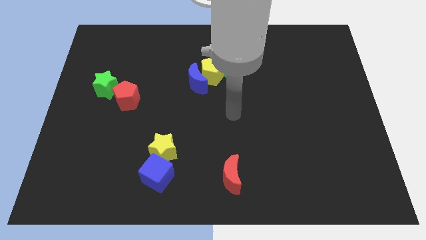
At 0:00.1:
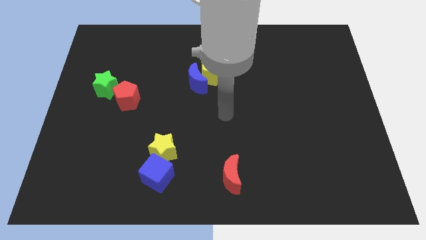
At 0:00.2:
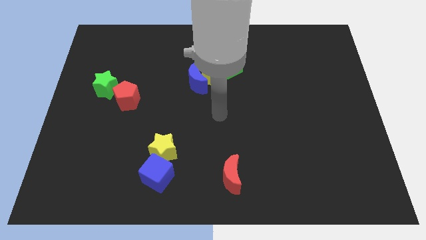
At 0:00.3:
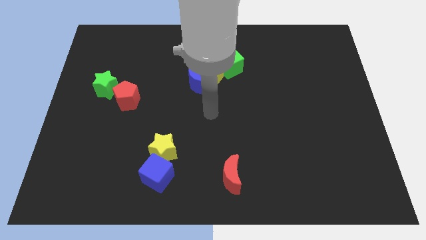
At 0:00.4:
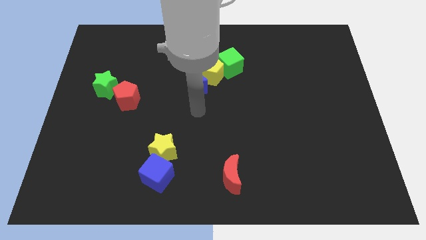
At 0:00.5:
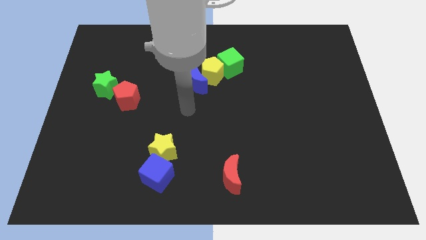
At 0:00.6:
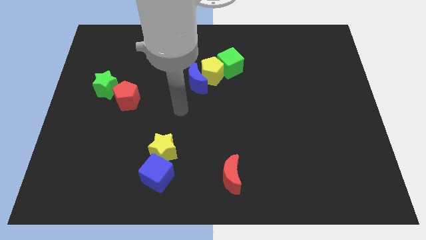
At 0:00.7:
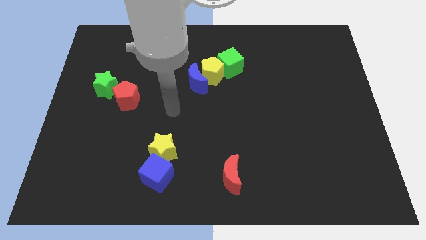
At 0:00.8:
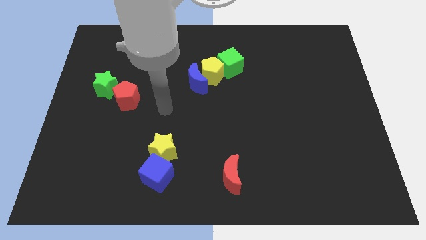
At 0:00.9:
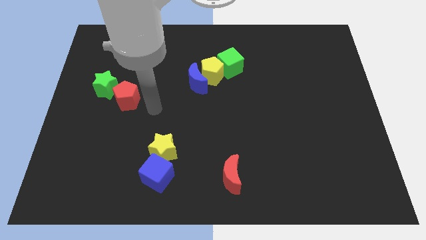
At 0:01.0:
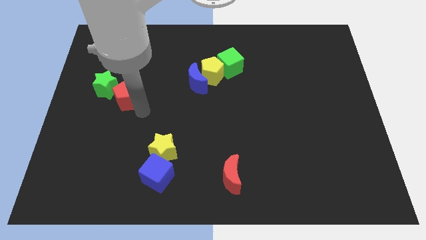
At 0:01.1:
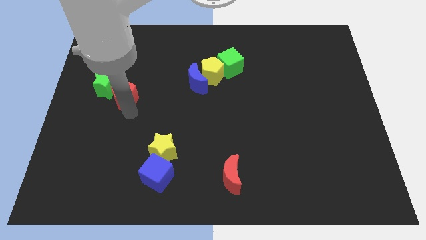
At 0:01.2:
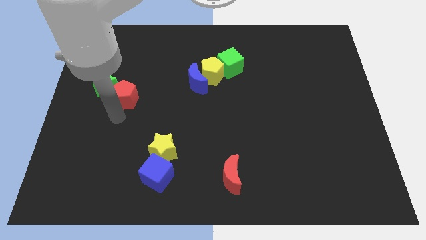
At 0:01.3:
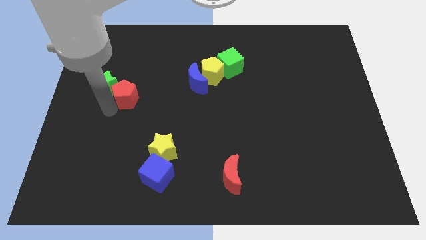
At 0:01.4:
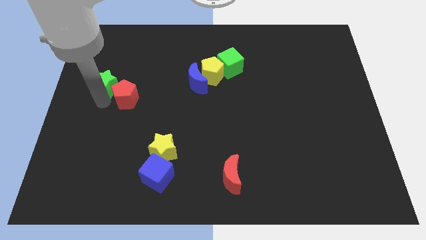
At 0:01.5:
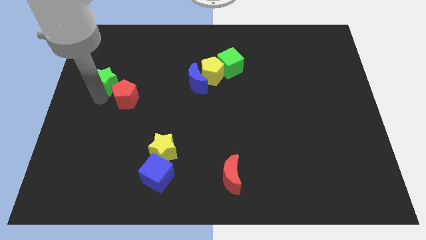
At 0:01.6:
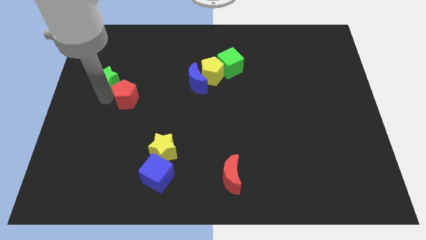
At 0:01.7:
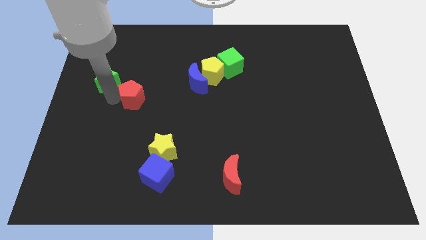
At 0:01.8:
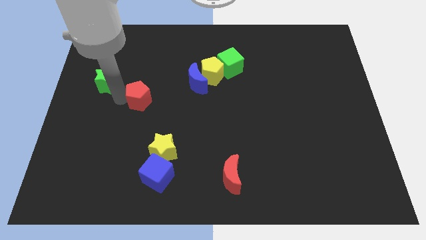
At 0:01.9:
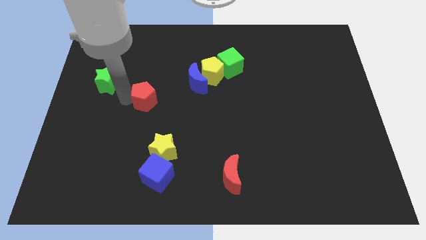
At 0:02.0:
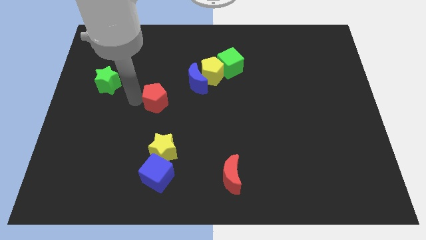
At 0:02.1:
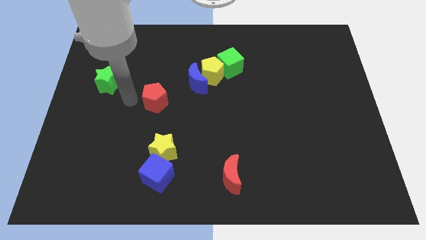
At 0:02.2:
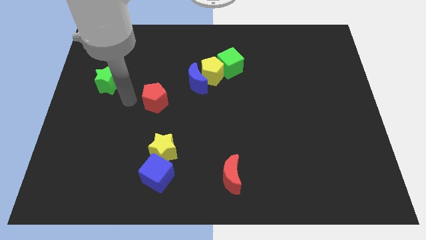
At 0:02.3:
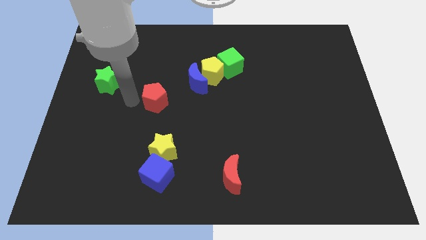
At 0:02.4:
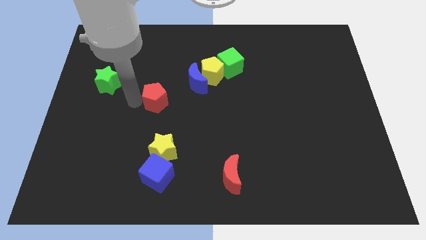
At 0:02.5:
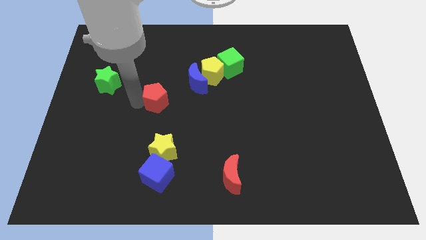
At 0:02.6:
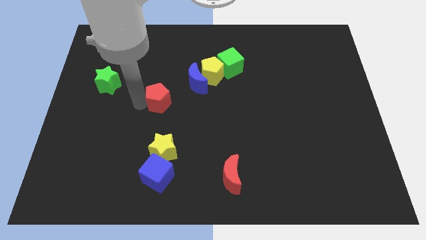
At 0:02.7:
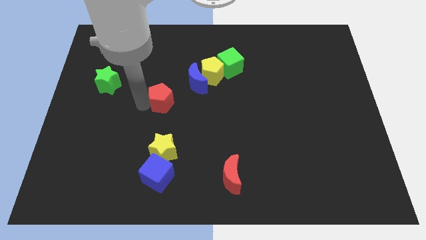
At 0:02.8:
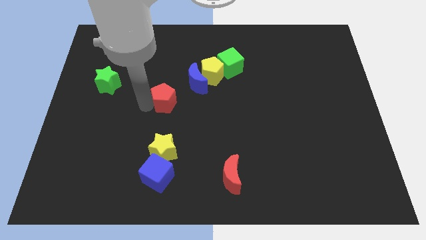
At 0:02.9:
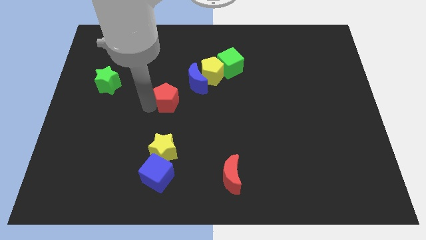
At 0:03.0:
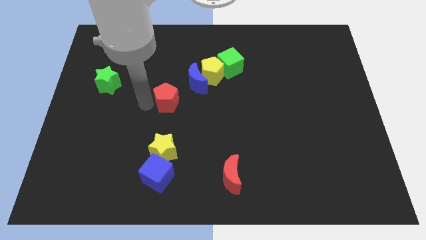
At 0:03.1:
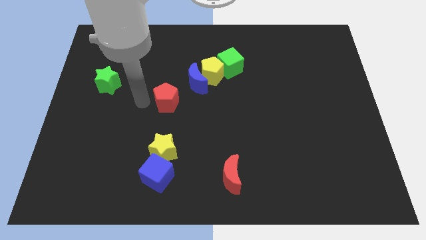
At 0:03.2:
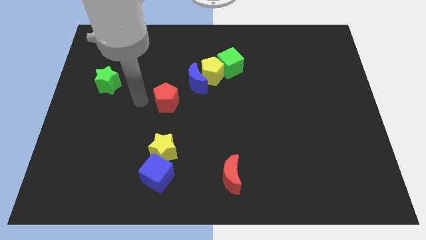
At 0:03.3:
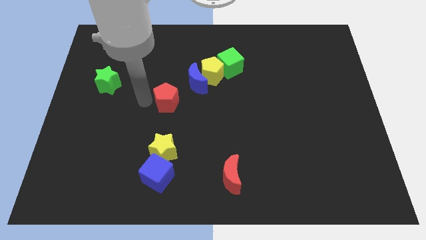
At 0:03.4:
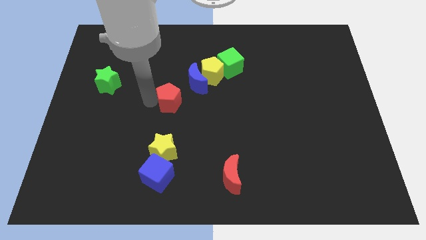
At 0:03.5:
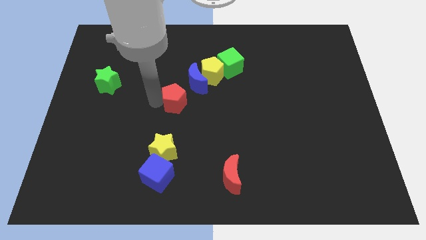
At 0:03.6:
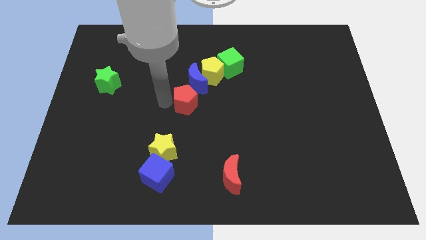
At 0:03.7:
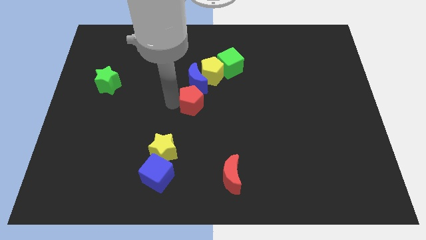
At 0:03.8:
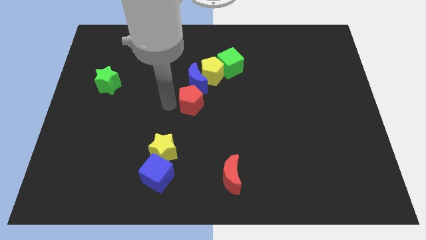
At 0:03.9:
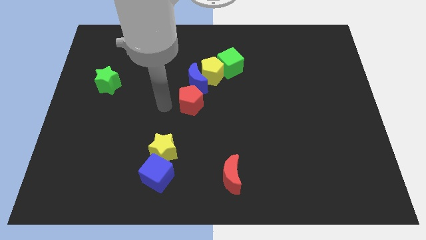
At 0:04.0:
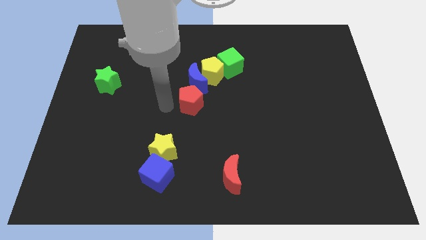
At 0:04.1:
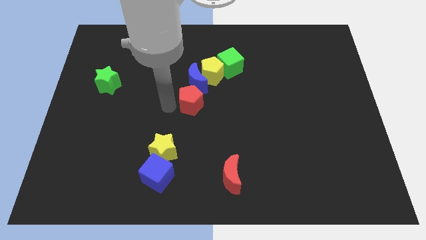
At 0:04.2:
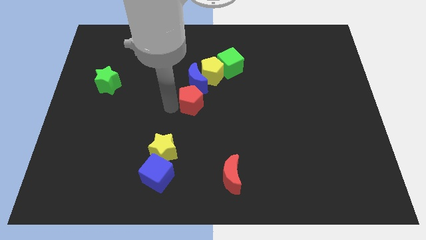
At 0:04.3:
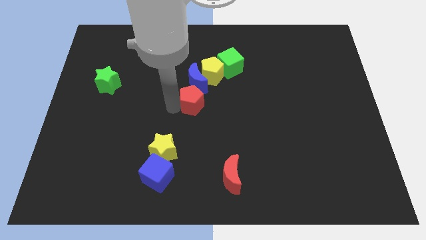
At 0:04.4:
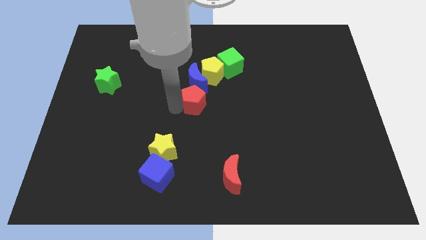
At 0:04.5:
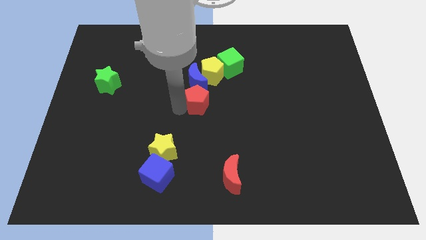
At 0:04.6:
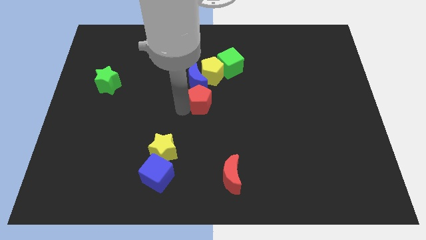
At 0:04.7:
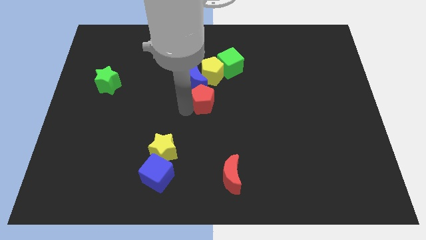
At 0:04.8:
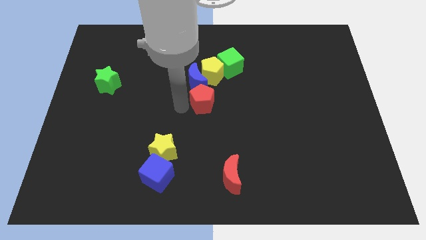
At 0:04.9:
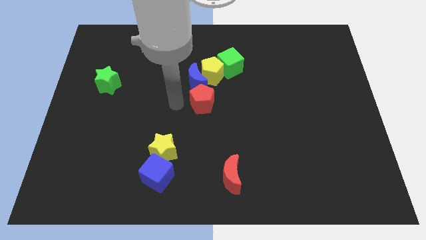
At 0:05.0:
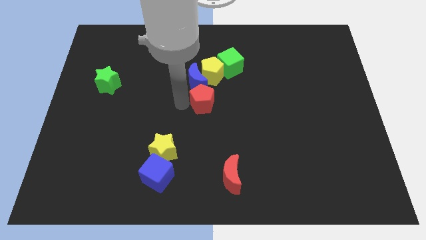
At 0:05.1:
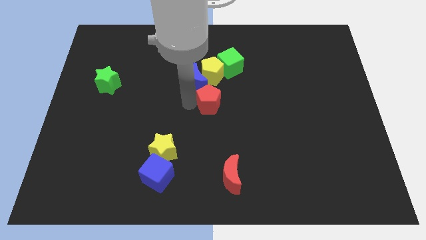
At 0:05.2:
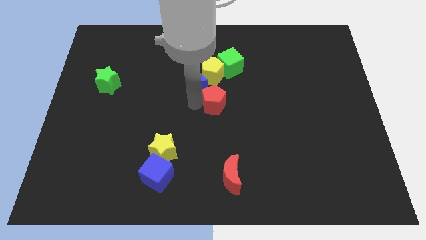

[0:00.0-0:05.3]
push the red pentagon to the right

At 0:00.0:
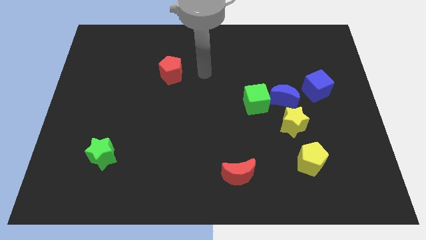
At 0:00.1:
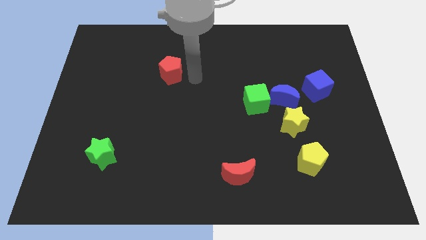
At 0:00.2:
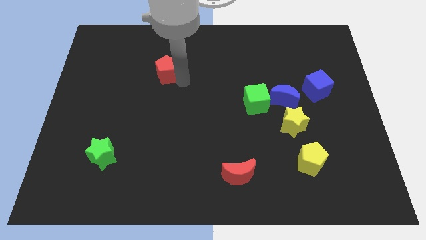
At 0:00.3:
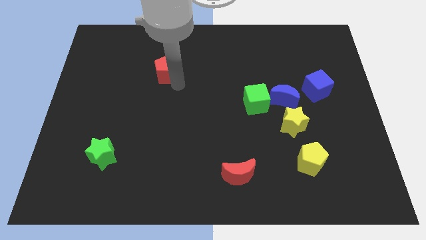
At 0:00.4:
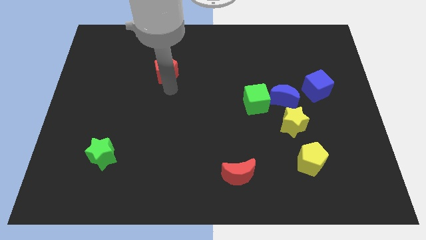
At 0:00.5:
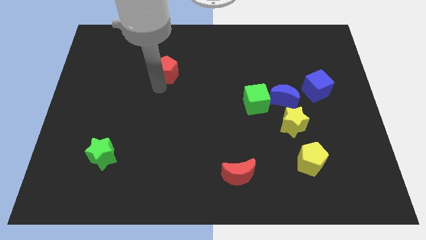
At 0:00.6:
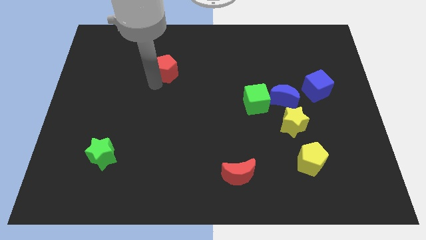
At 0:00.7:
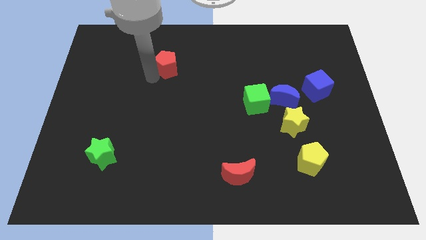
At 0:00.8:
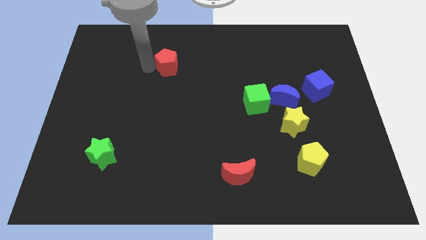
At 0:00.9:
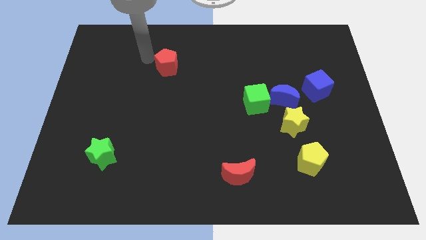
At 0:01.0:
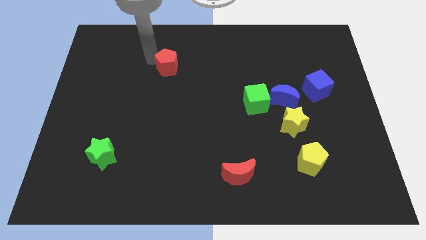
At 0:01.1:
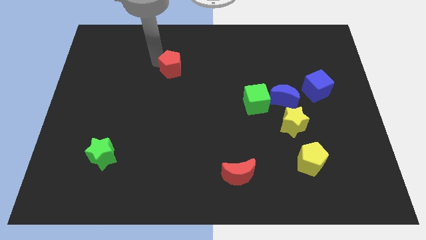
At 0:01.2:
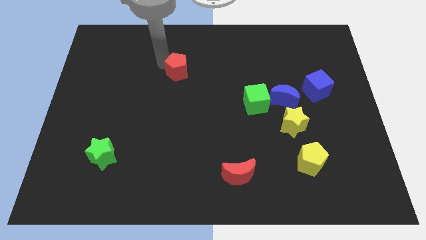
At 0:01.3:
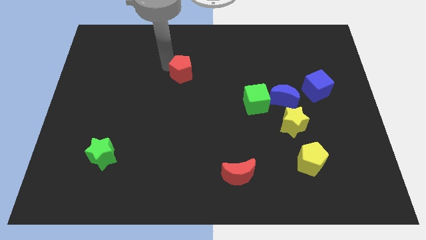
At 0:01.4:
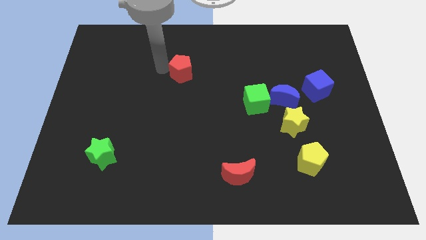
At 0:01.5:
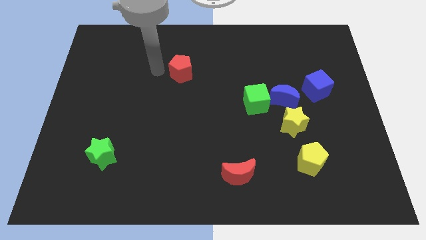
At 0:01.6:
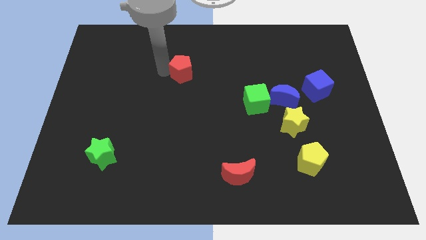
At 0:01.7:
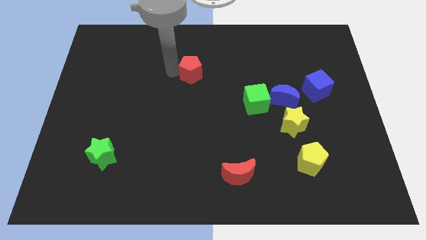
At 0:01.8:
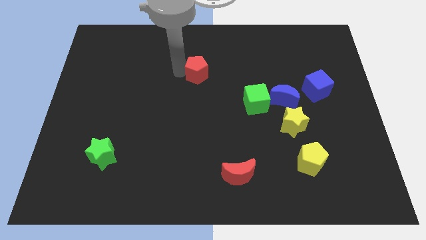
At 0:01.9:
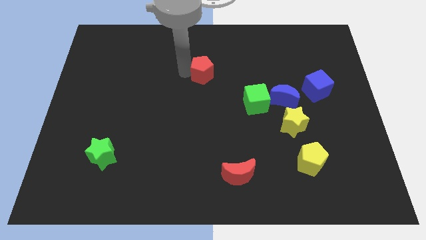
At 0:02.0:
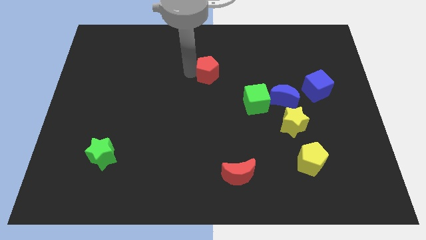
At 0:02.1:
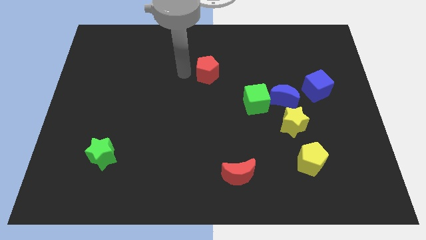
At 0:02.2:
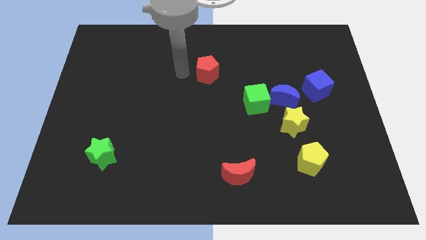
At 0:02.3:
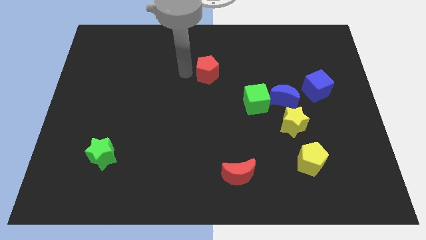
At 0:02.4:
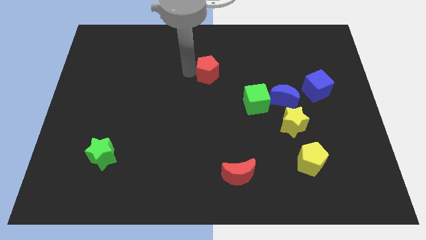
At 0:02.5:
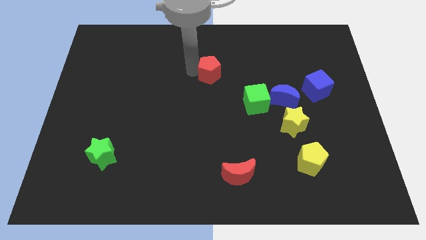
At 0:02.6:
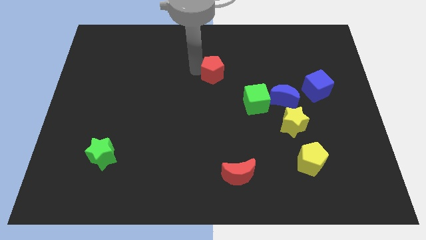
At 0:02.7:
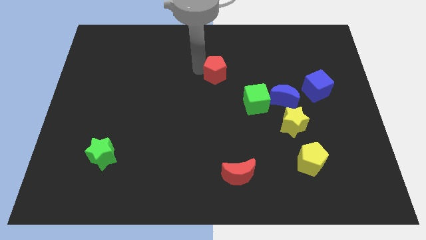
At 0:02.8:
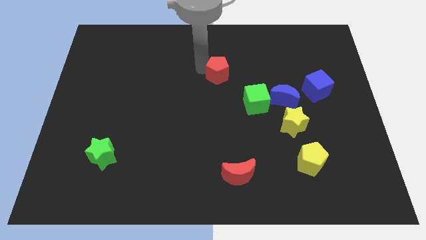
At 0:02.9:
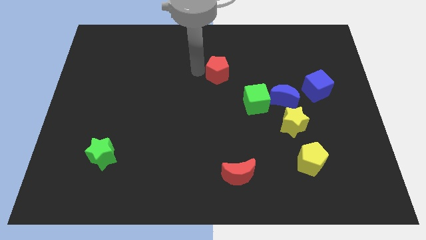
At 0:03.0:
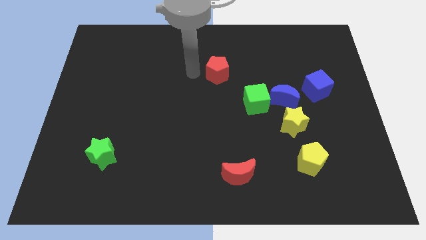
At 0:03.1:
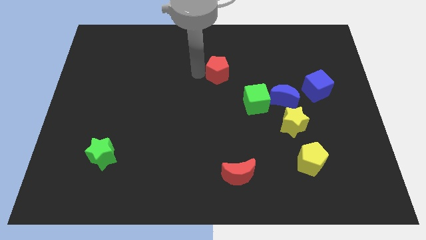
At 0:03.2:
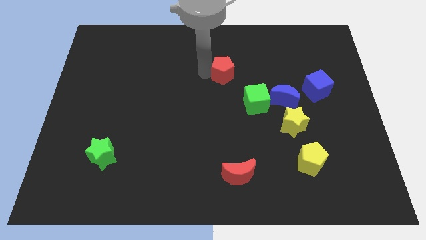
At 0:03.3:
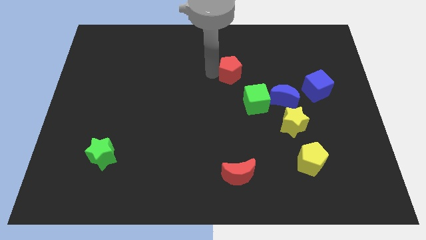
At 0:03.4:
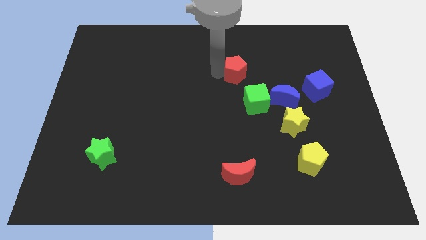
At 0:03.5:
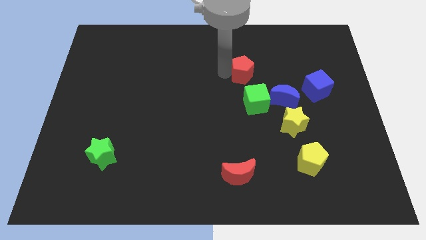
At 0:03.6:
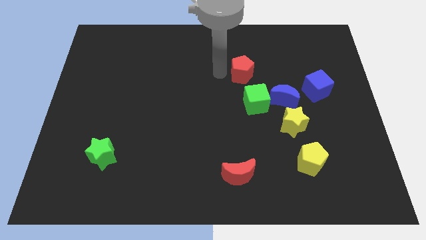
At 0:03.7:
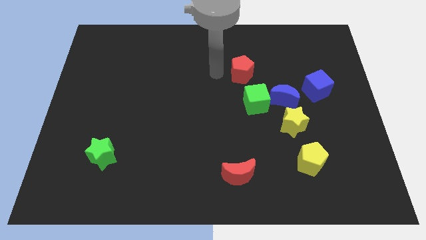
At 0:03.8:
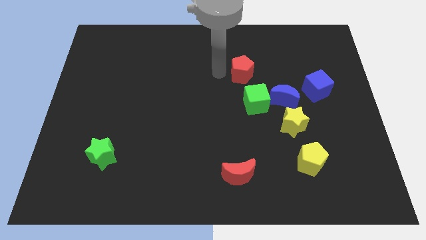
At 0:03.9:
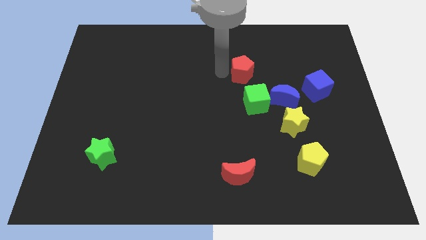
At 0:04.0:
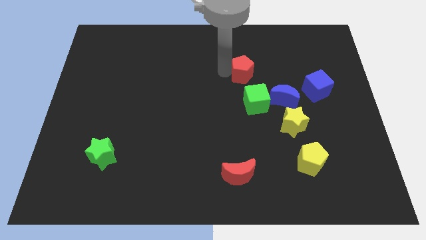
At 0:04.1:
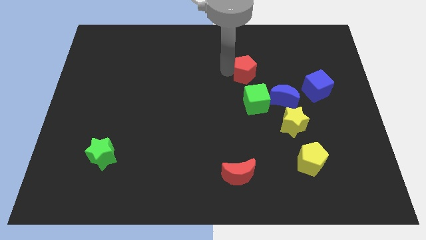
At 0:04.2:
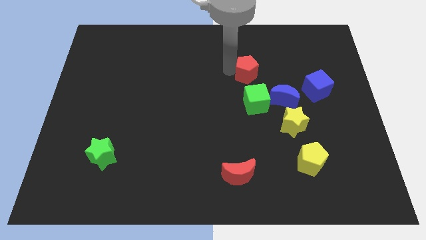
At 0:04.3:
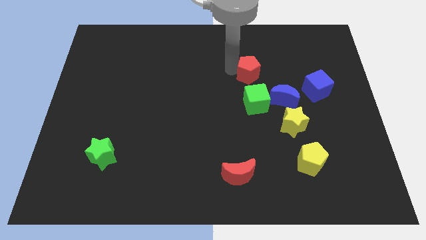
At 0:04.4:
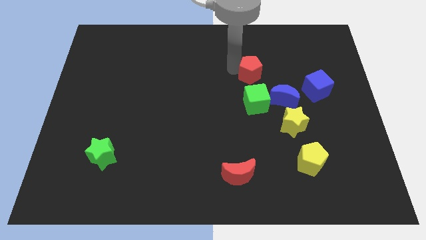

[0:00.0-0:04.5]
move the red pentagon to the right
